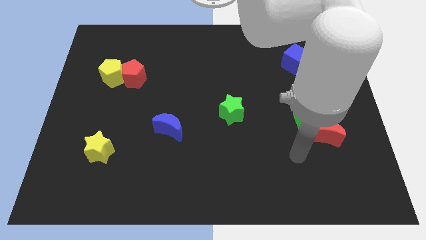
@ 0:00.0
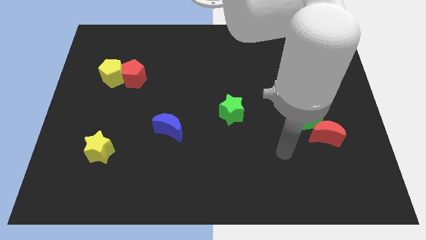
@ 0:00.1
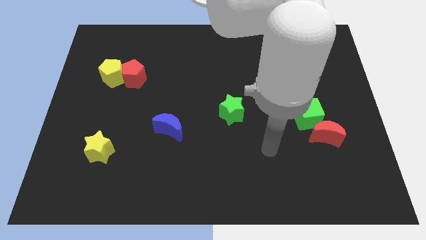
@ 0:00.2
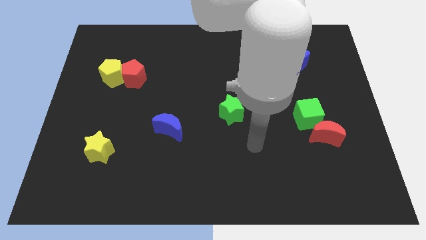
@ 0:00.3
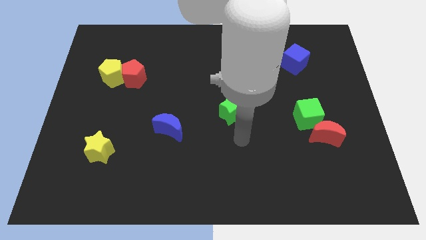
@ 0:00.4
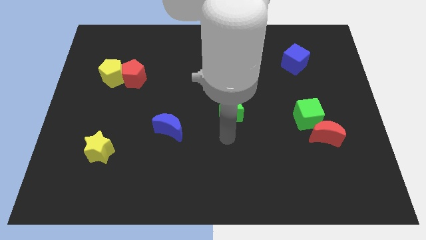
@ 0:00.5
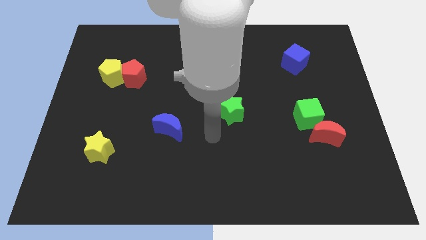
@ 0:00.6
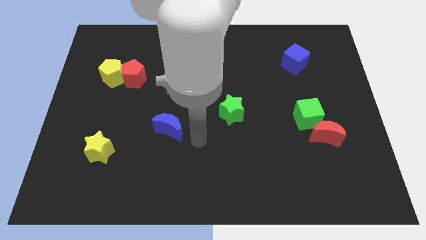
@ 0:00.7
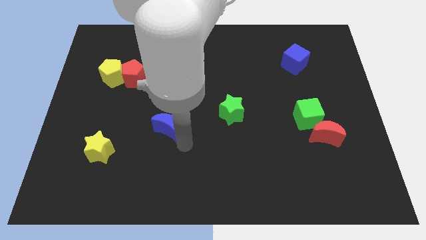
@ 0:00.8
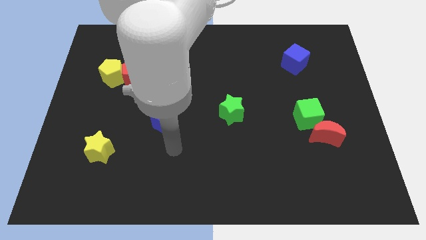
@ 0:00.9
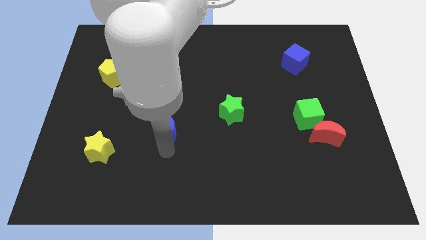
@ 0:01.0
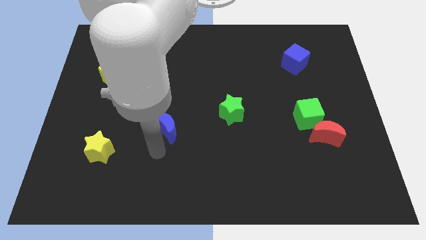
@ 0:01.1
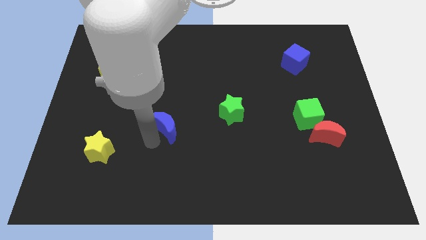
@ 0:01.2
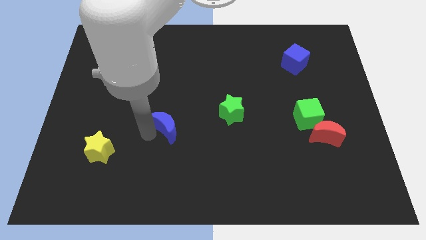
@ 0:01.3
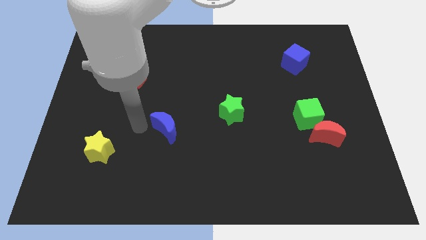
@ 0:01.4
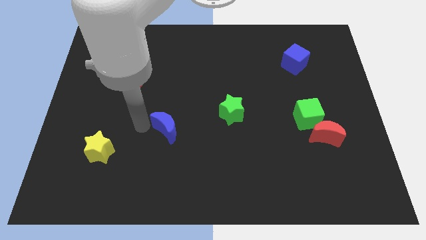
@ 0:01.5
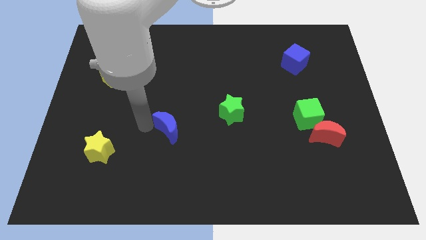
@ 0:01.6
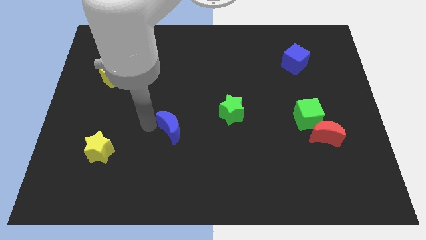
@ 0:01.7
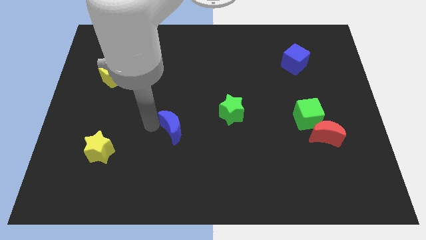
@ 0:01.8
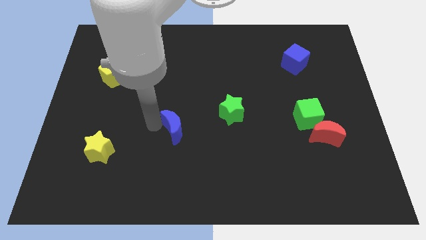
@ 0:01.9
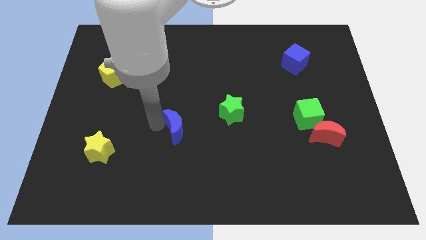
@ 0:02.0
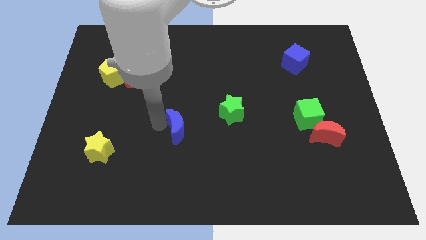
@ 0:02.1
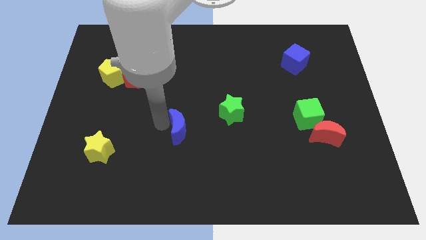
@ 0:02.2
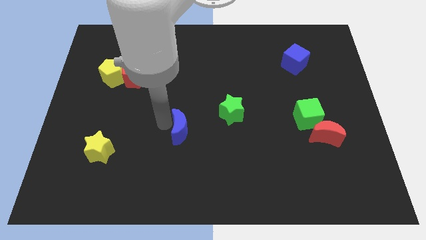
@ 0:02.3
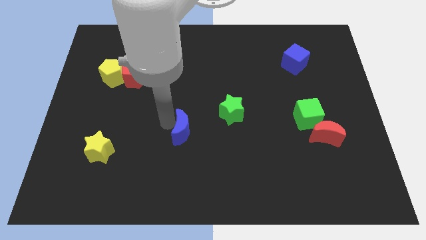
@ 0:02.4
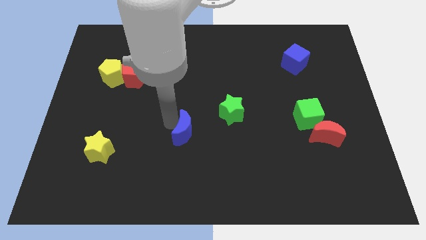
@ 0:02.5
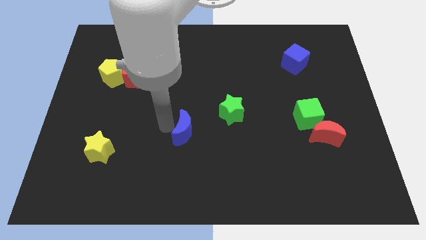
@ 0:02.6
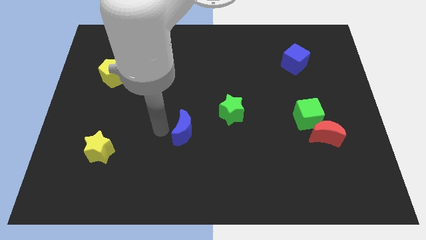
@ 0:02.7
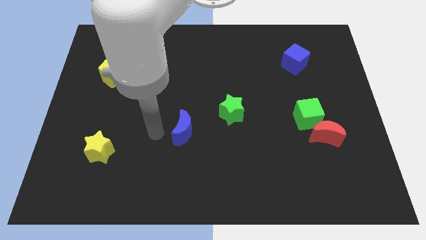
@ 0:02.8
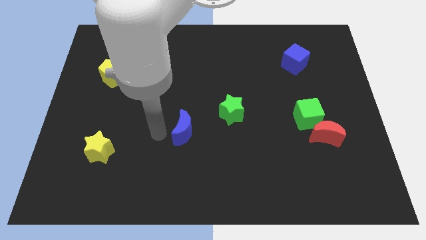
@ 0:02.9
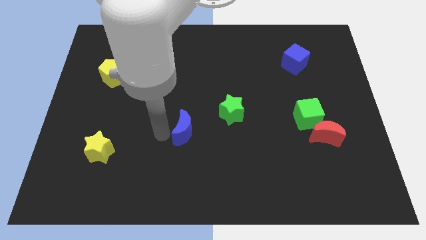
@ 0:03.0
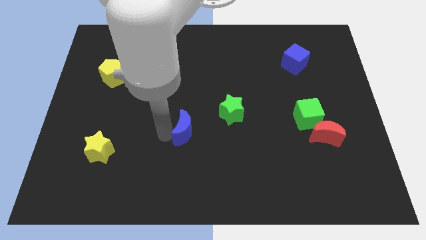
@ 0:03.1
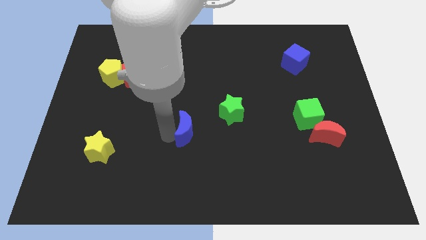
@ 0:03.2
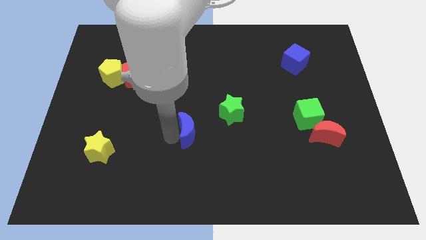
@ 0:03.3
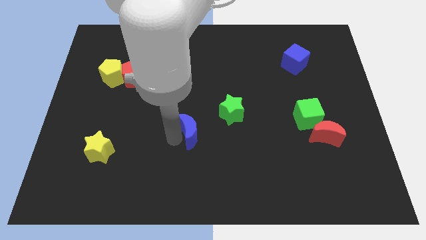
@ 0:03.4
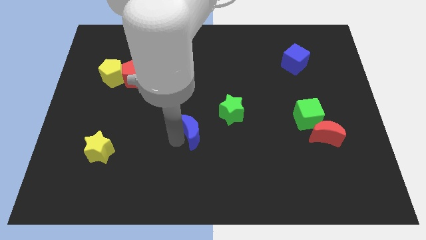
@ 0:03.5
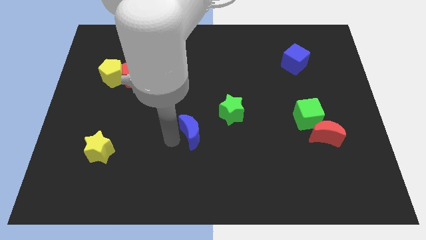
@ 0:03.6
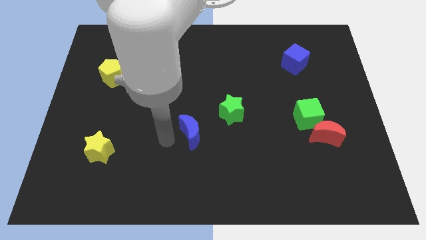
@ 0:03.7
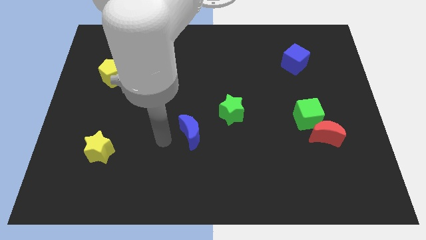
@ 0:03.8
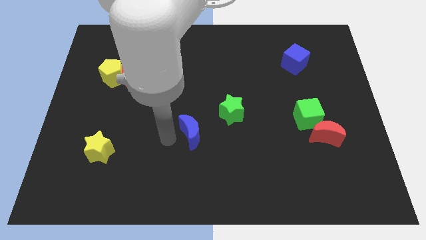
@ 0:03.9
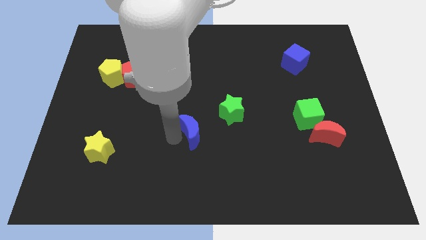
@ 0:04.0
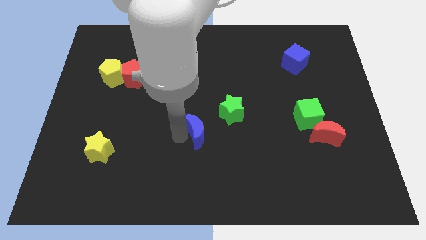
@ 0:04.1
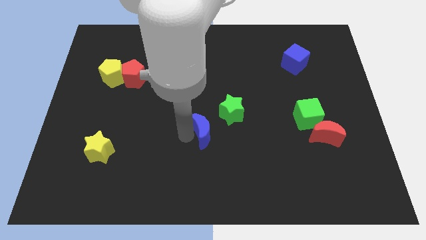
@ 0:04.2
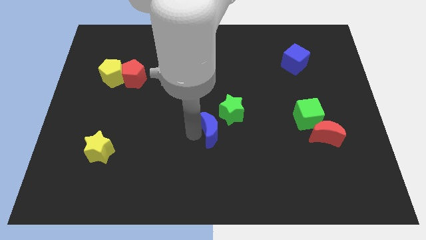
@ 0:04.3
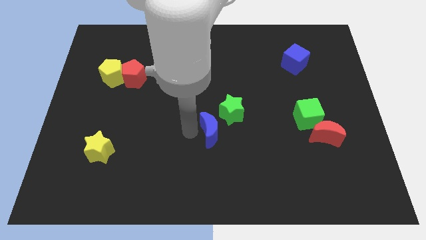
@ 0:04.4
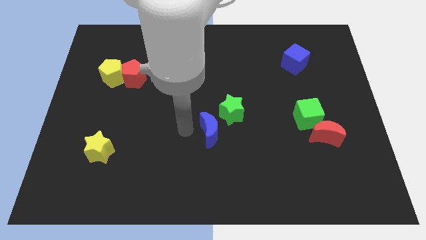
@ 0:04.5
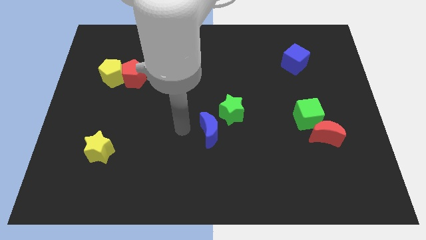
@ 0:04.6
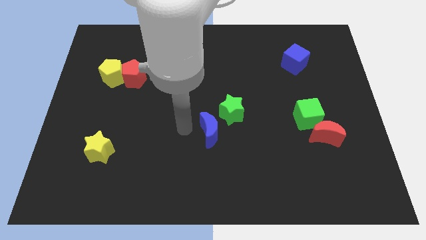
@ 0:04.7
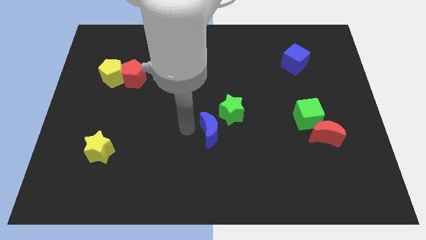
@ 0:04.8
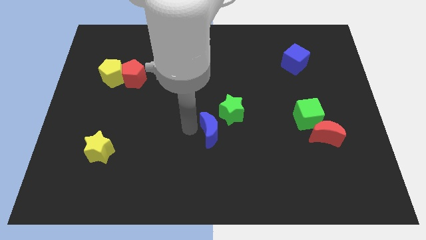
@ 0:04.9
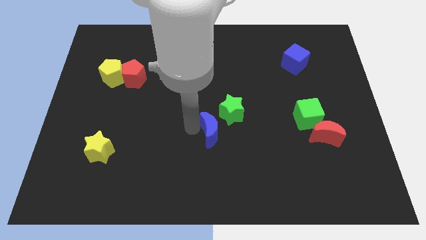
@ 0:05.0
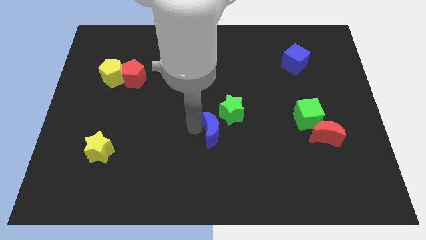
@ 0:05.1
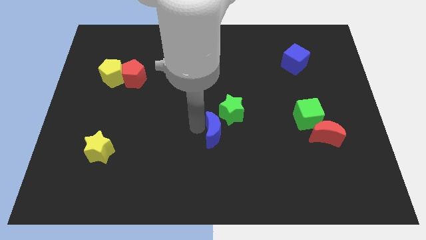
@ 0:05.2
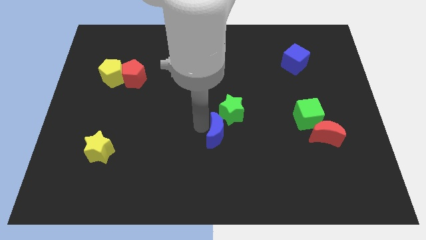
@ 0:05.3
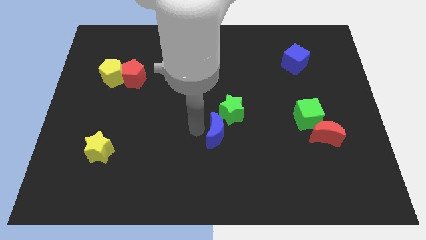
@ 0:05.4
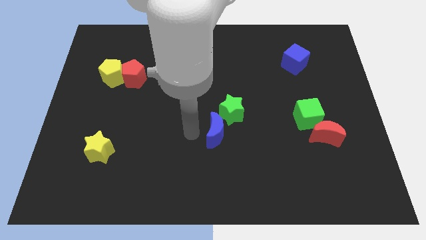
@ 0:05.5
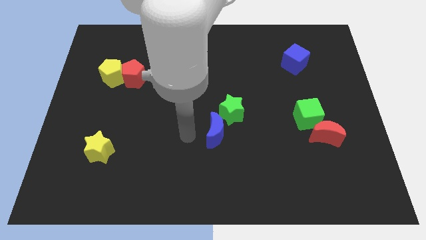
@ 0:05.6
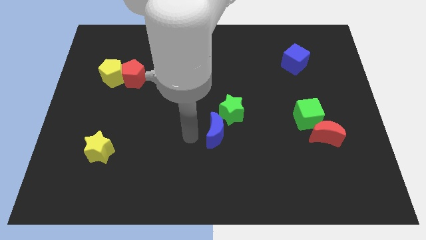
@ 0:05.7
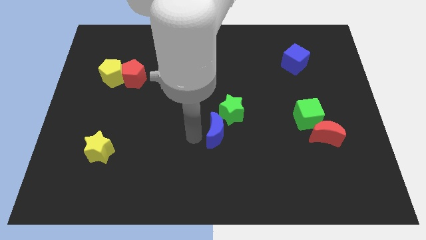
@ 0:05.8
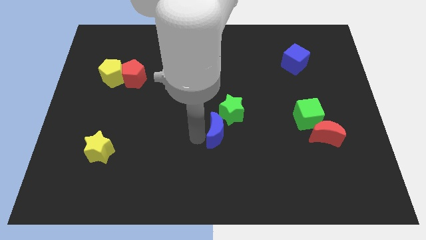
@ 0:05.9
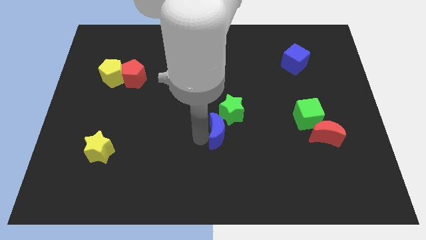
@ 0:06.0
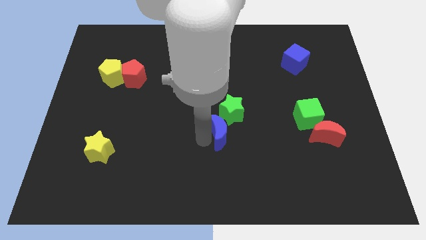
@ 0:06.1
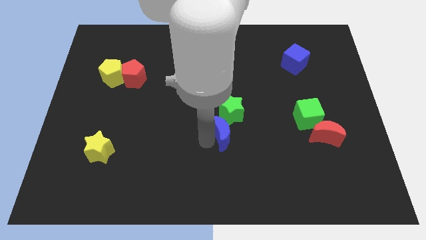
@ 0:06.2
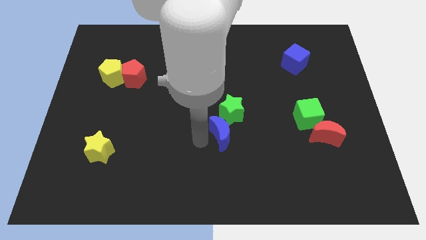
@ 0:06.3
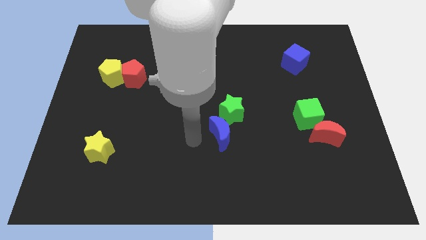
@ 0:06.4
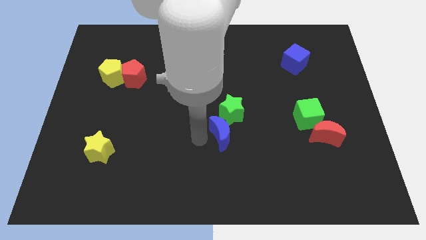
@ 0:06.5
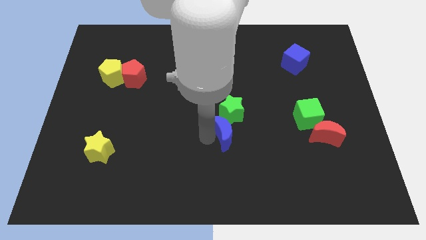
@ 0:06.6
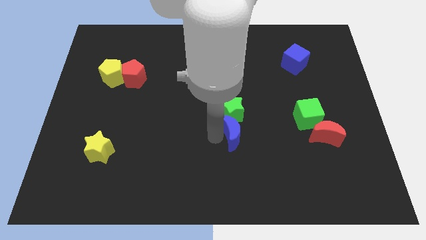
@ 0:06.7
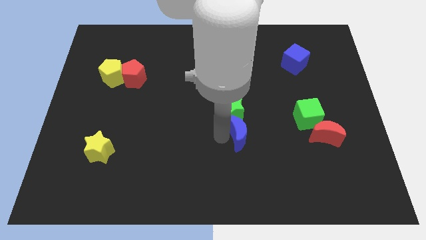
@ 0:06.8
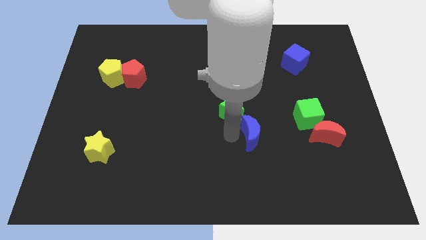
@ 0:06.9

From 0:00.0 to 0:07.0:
put the blue moon just left of the red moon
